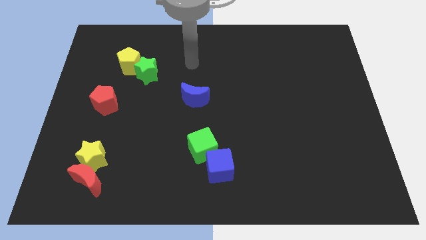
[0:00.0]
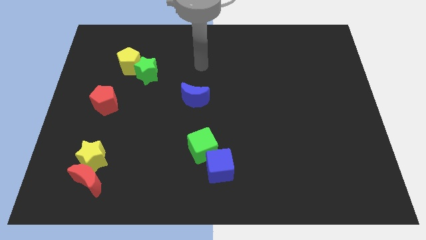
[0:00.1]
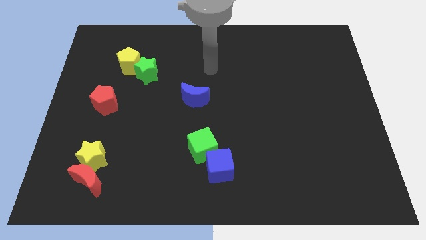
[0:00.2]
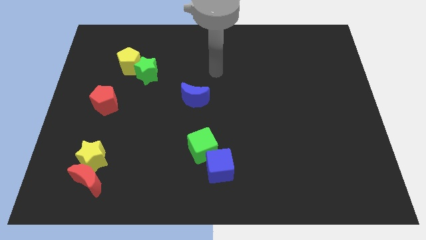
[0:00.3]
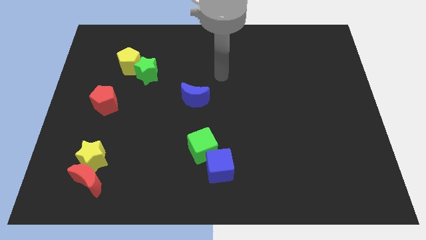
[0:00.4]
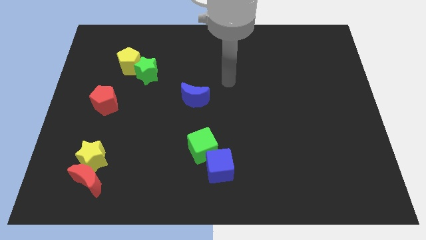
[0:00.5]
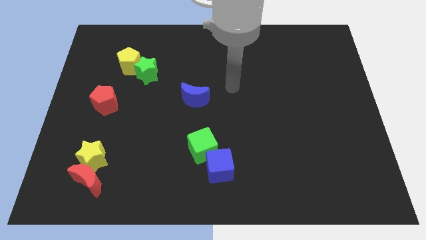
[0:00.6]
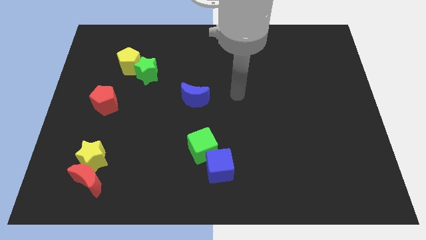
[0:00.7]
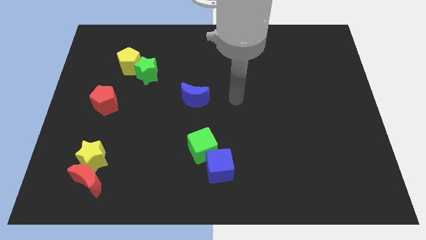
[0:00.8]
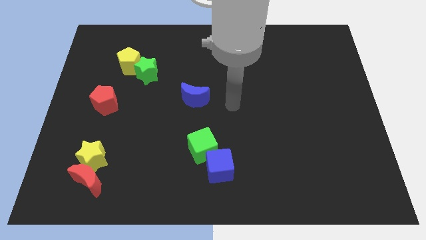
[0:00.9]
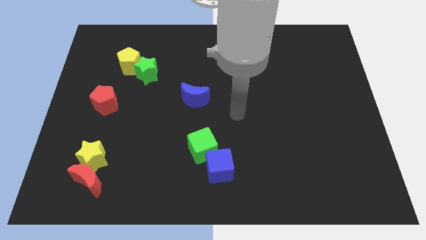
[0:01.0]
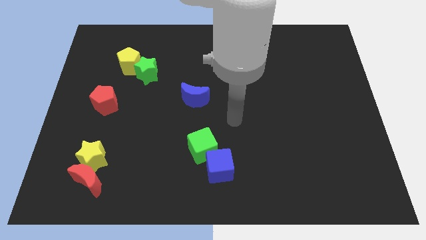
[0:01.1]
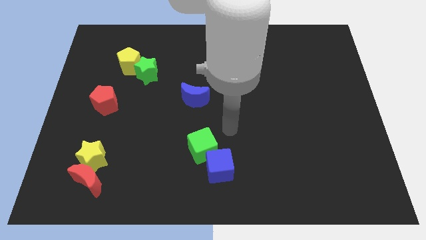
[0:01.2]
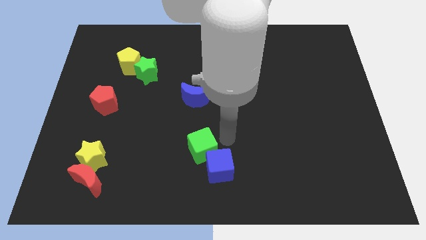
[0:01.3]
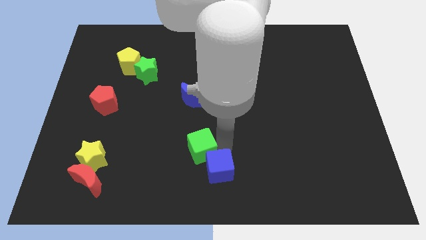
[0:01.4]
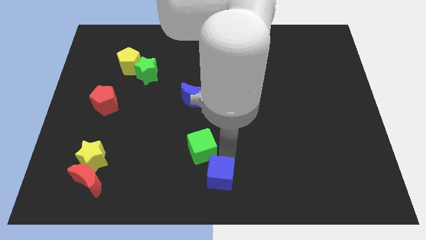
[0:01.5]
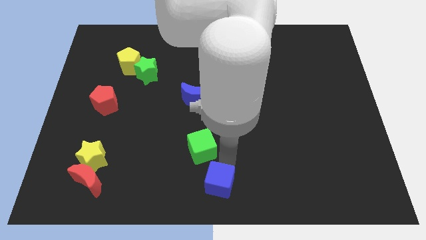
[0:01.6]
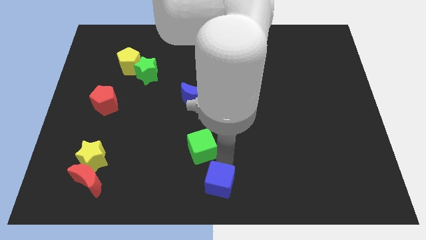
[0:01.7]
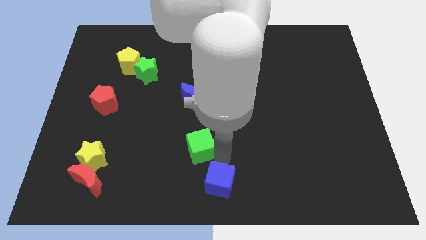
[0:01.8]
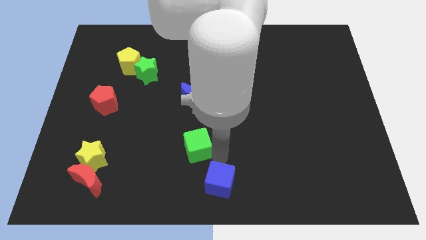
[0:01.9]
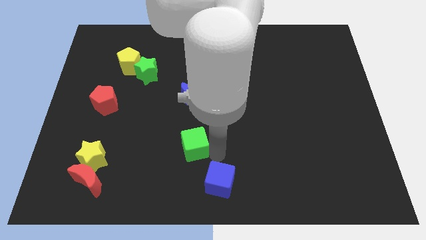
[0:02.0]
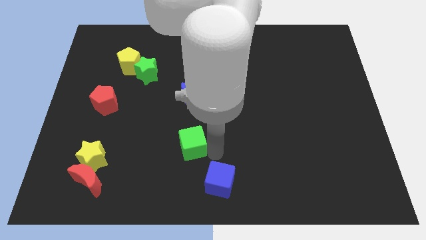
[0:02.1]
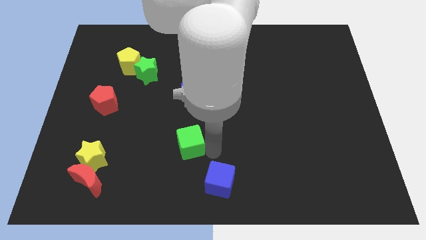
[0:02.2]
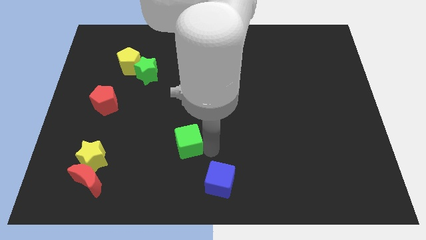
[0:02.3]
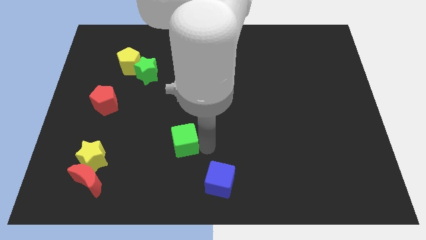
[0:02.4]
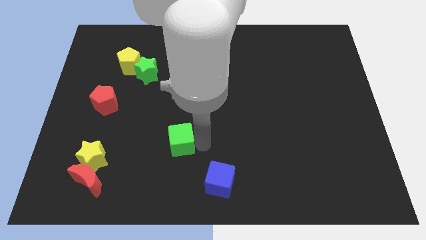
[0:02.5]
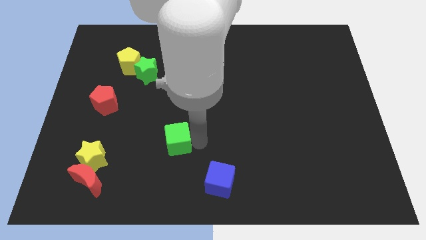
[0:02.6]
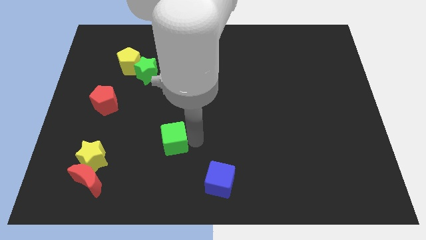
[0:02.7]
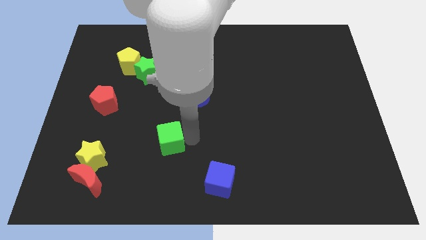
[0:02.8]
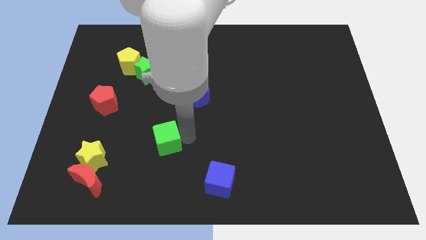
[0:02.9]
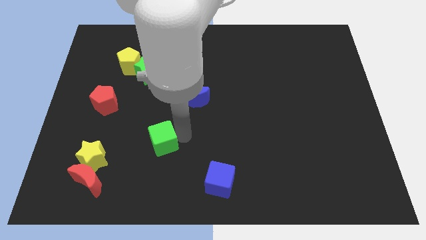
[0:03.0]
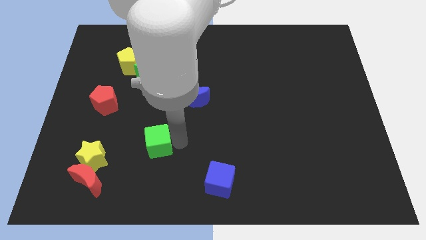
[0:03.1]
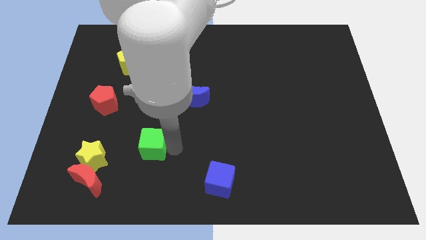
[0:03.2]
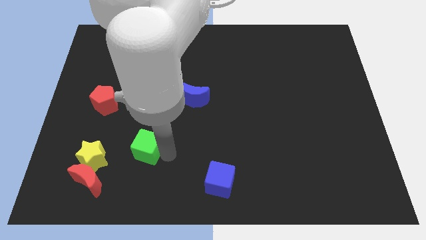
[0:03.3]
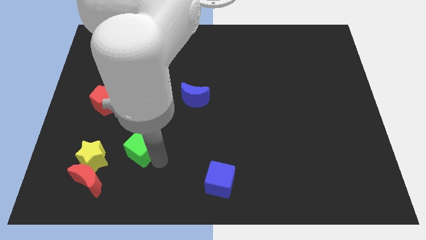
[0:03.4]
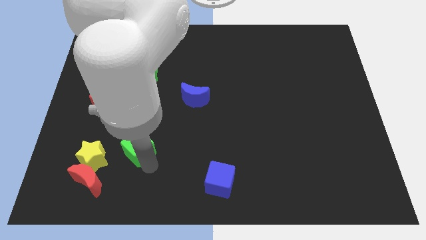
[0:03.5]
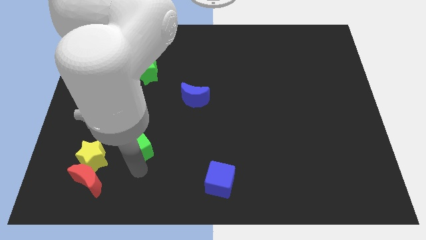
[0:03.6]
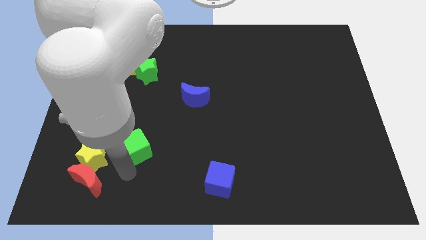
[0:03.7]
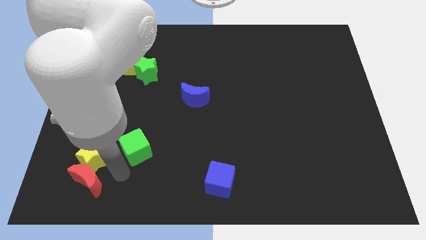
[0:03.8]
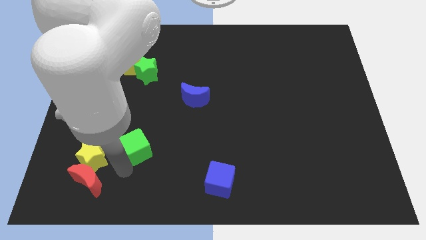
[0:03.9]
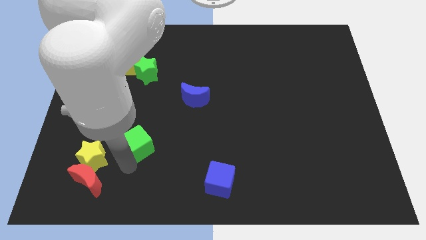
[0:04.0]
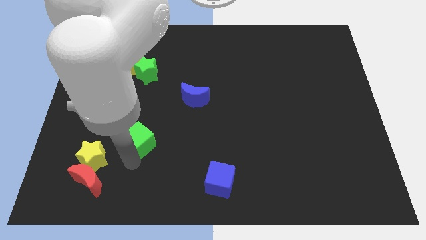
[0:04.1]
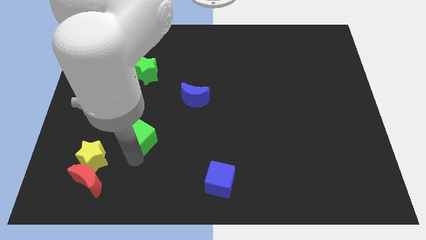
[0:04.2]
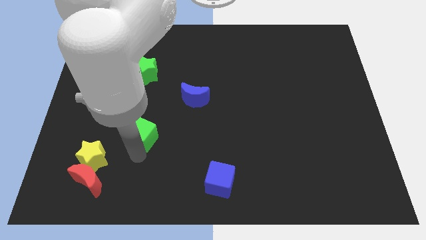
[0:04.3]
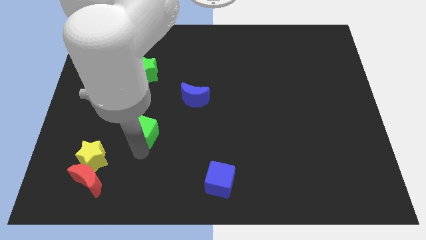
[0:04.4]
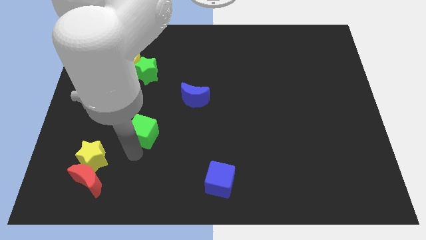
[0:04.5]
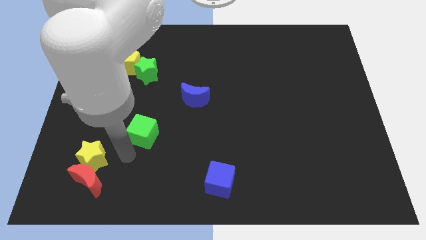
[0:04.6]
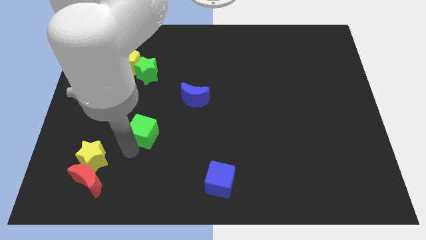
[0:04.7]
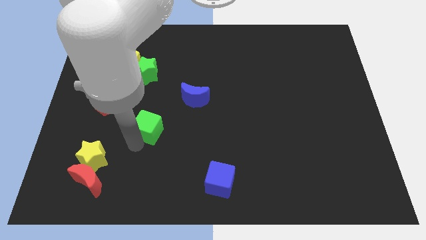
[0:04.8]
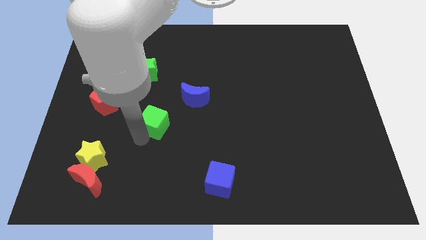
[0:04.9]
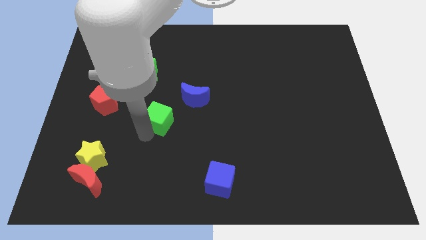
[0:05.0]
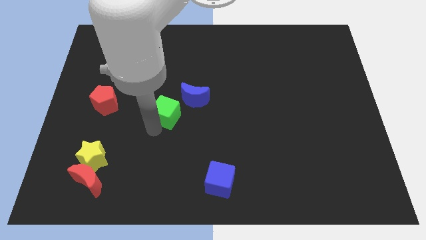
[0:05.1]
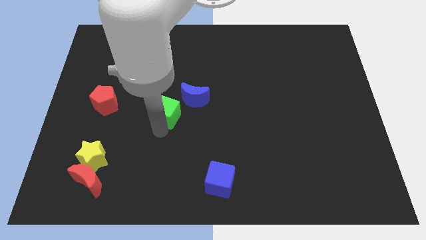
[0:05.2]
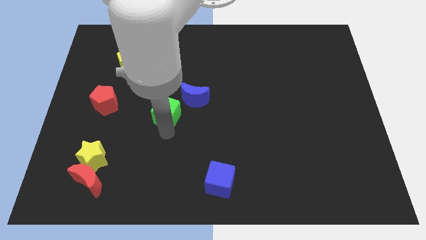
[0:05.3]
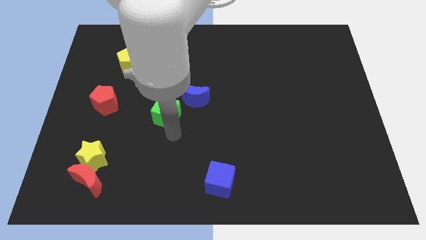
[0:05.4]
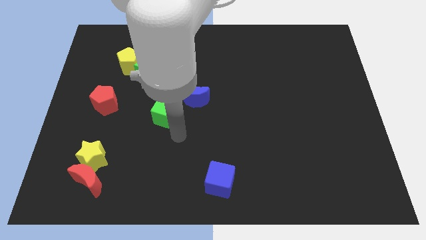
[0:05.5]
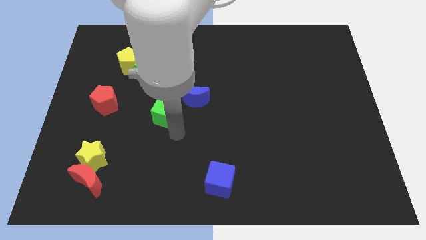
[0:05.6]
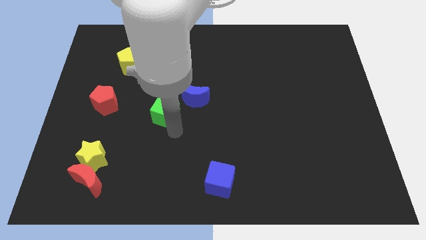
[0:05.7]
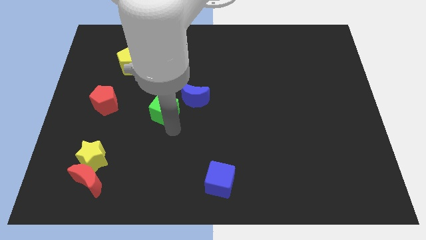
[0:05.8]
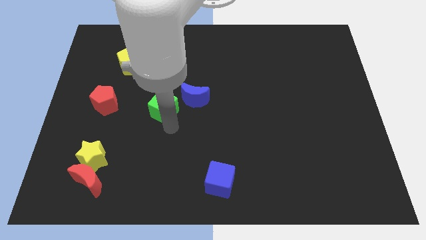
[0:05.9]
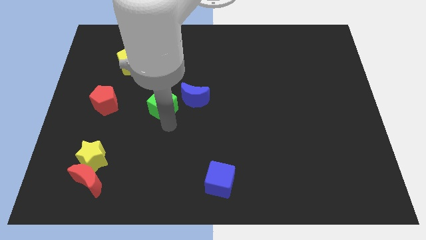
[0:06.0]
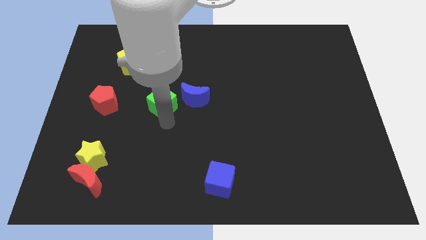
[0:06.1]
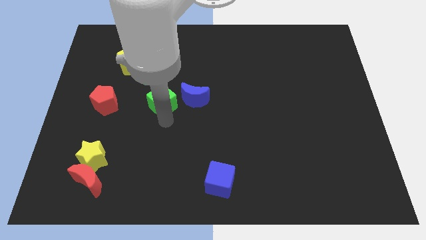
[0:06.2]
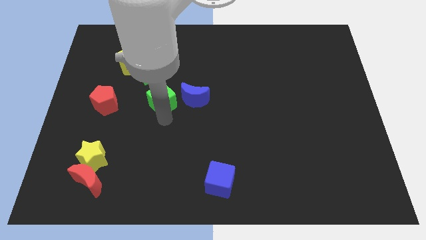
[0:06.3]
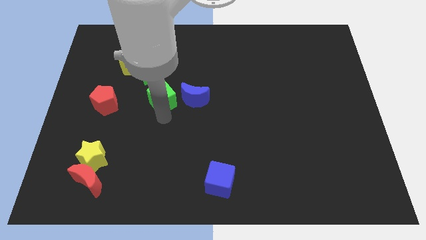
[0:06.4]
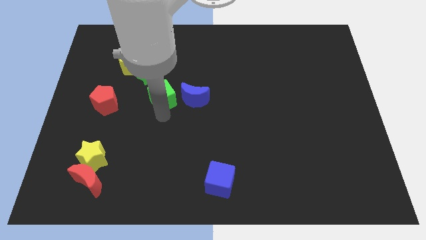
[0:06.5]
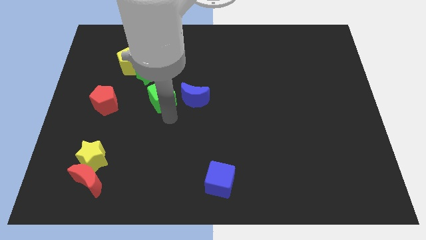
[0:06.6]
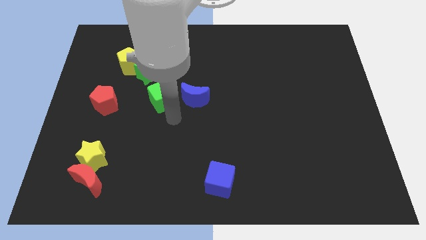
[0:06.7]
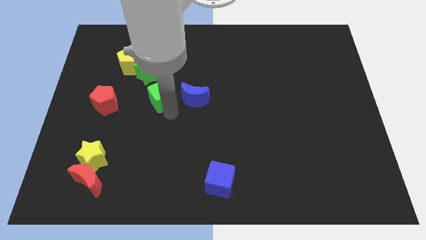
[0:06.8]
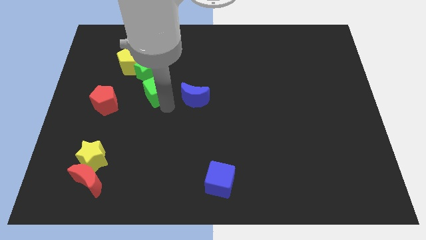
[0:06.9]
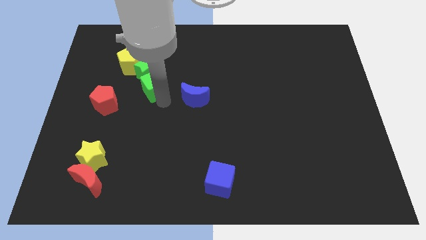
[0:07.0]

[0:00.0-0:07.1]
put the green cube towards the green star
